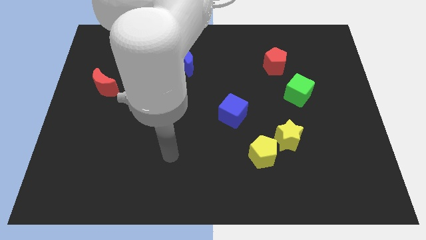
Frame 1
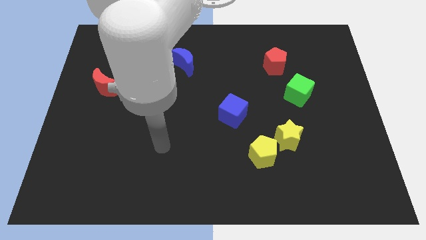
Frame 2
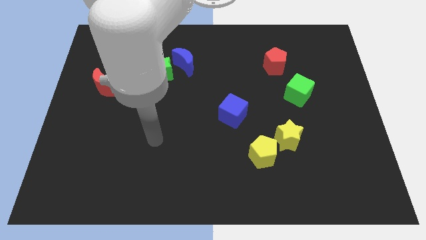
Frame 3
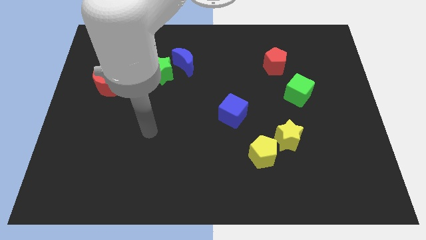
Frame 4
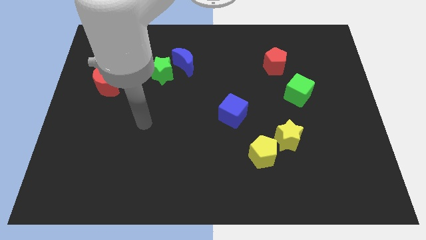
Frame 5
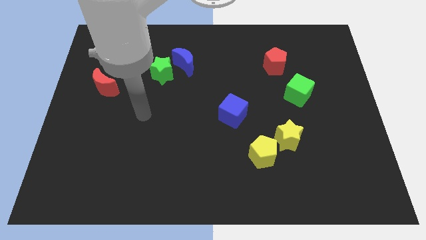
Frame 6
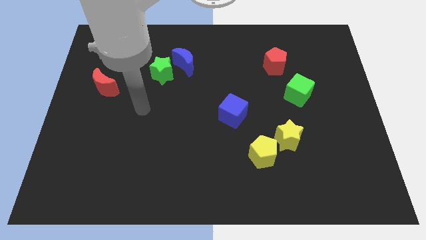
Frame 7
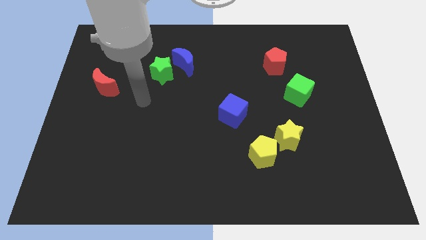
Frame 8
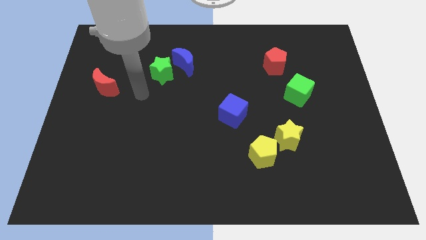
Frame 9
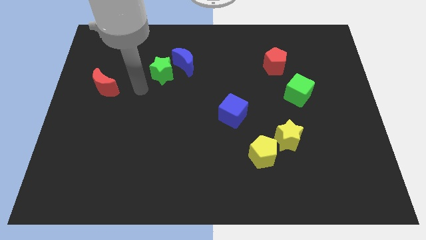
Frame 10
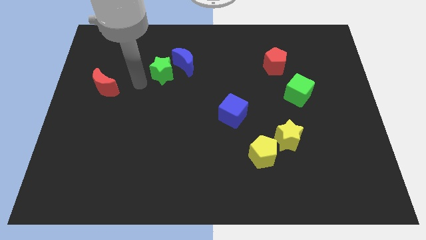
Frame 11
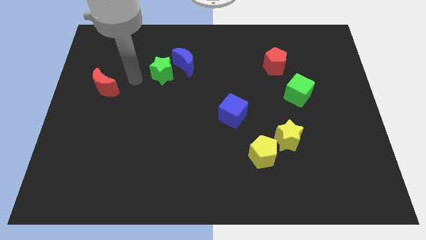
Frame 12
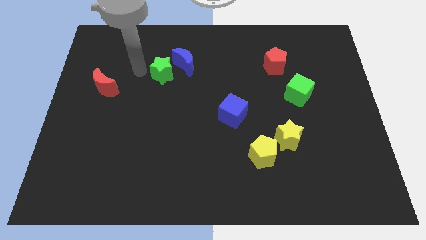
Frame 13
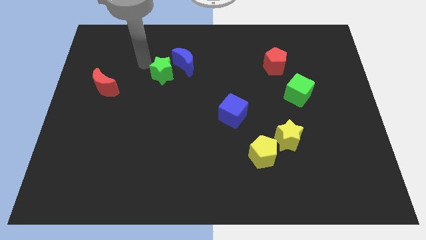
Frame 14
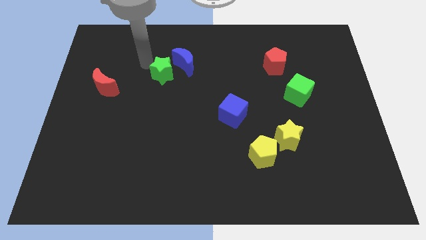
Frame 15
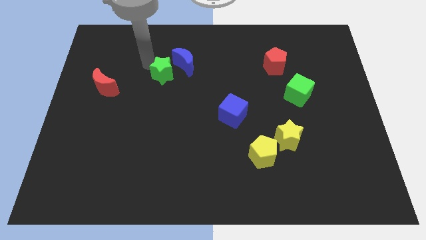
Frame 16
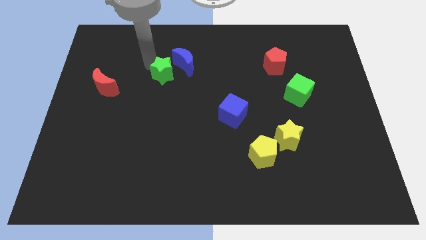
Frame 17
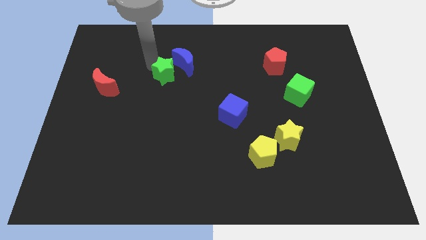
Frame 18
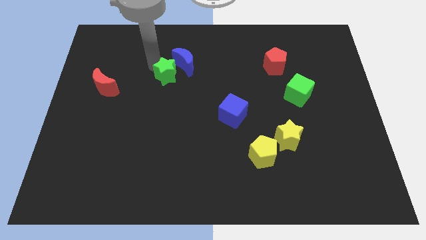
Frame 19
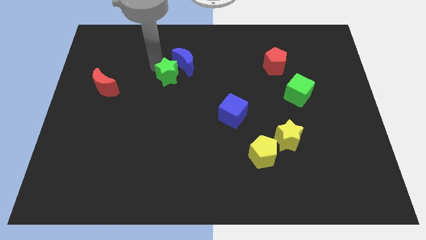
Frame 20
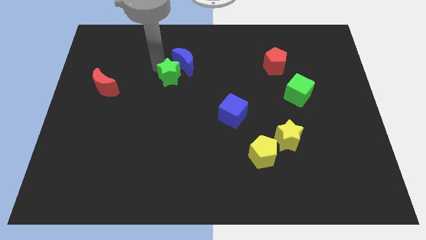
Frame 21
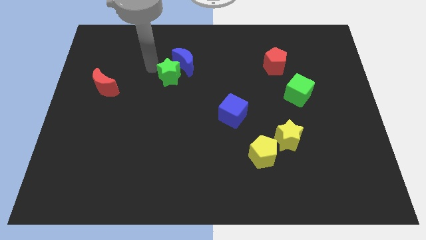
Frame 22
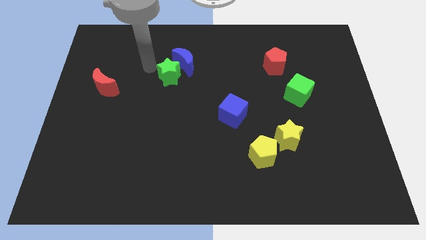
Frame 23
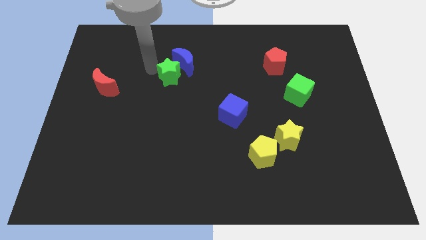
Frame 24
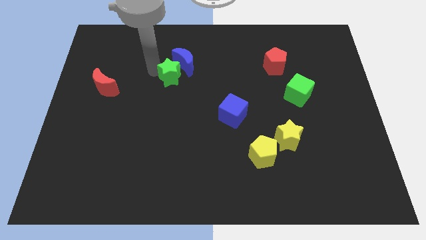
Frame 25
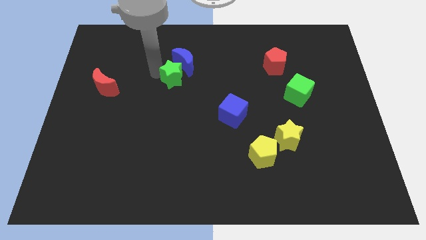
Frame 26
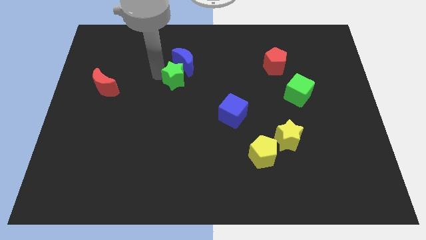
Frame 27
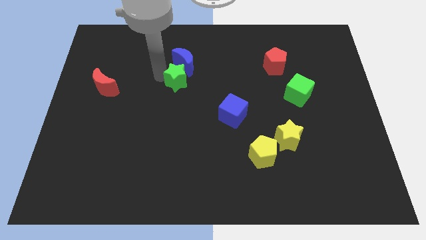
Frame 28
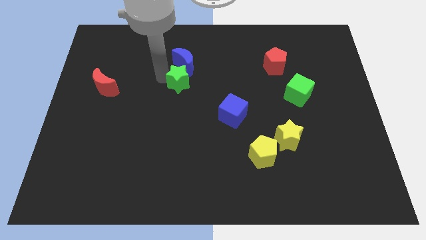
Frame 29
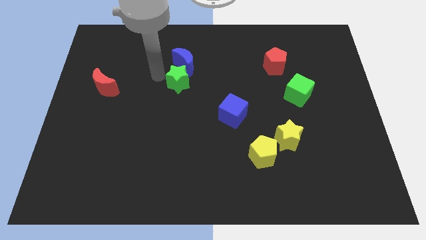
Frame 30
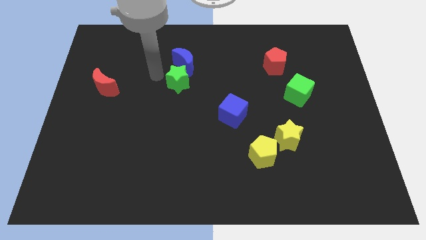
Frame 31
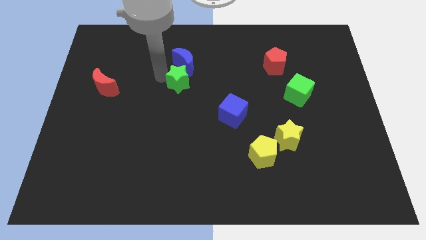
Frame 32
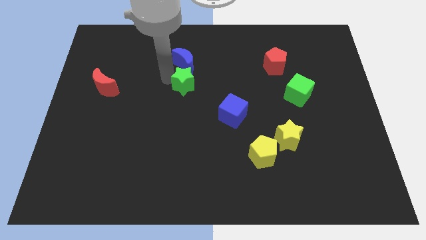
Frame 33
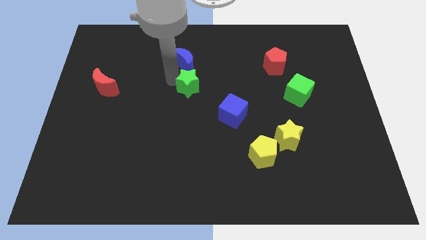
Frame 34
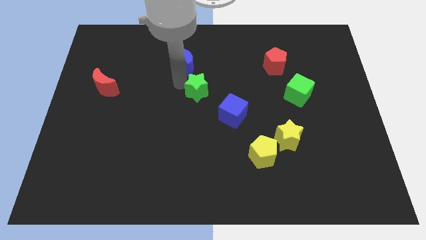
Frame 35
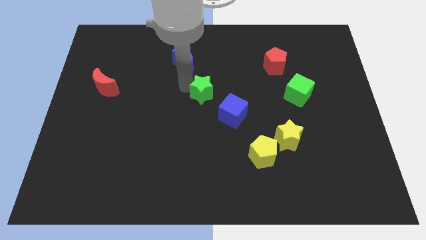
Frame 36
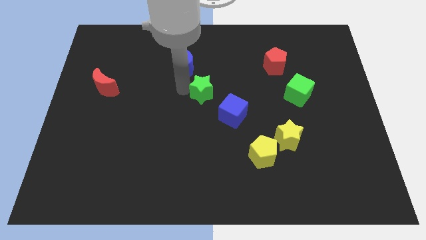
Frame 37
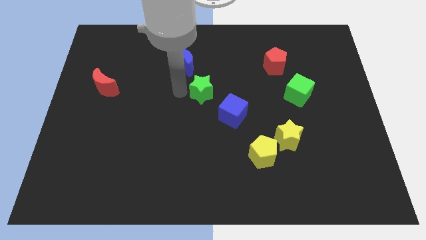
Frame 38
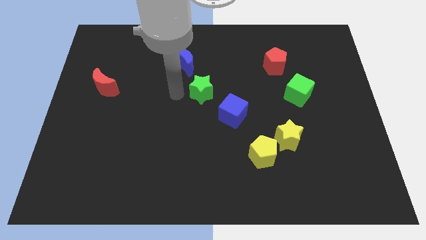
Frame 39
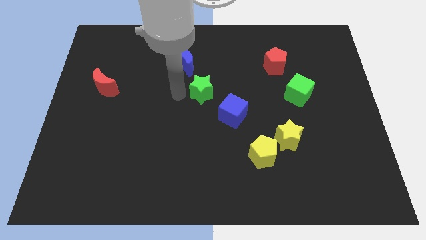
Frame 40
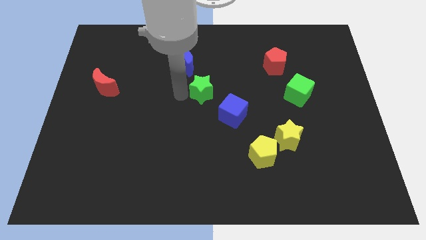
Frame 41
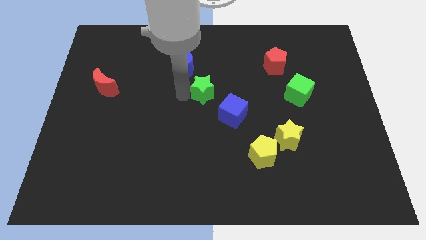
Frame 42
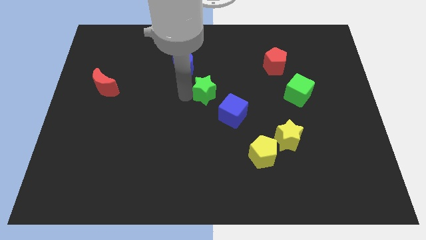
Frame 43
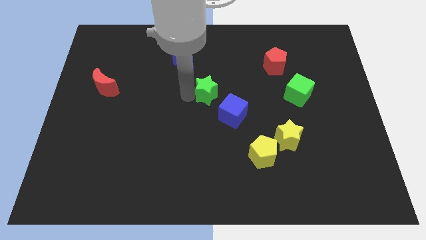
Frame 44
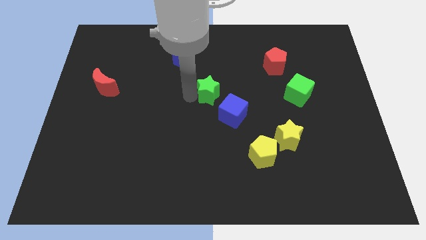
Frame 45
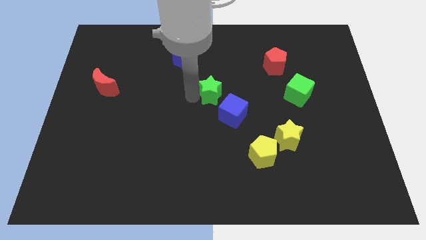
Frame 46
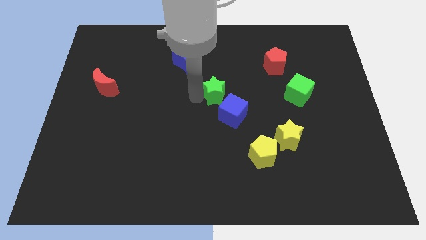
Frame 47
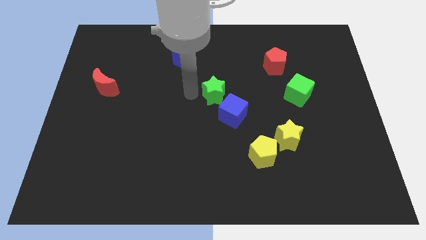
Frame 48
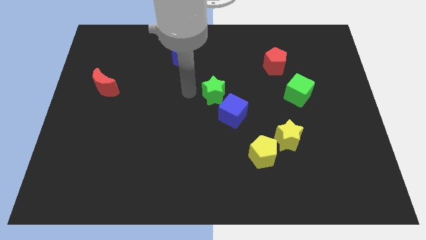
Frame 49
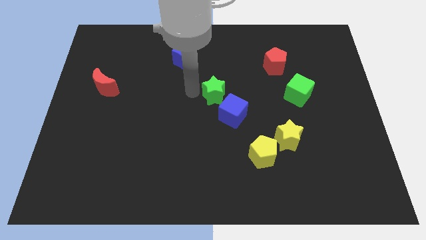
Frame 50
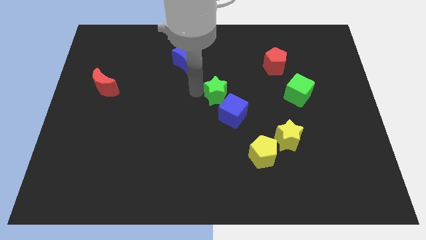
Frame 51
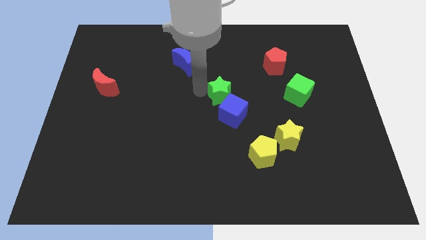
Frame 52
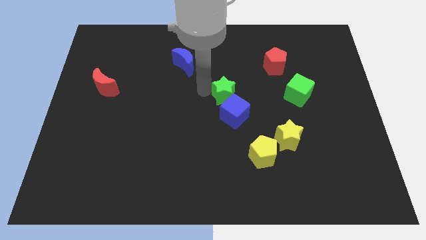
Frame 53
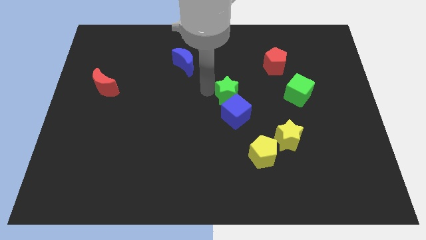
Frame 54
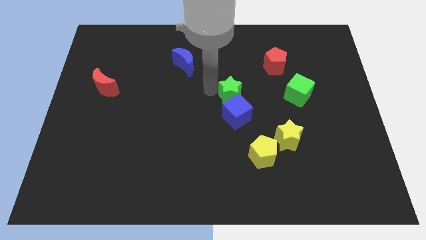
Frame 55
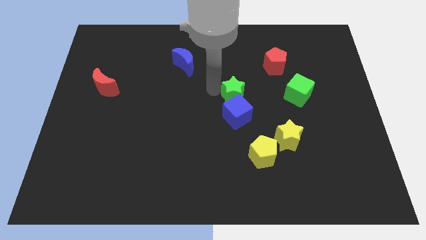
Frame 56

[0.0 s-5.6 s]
push the green star to the top right side of the blue cube

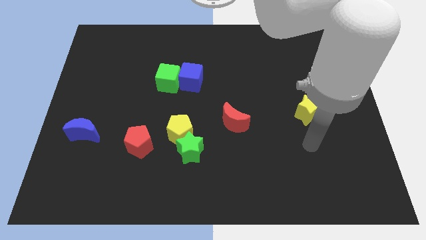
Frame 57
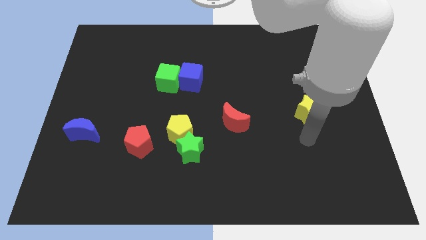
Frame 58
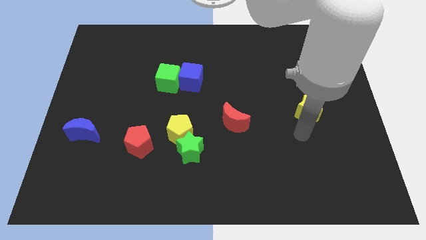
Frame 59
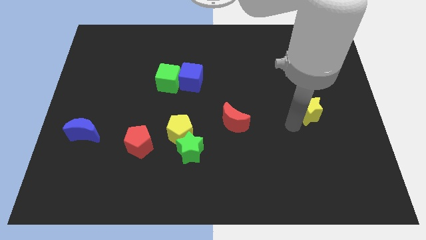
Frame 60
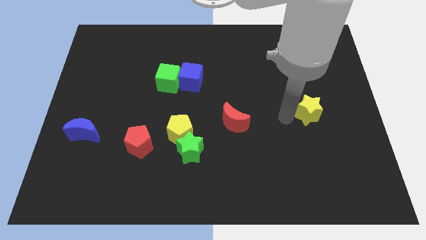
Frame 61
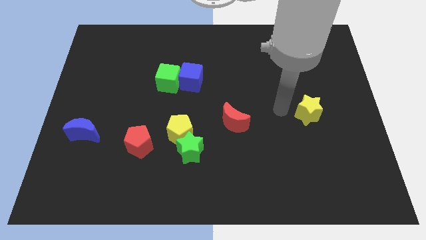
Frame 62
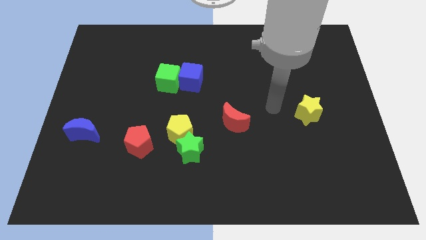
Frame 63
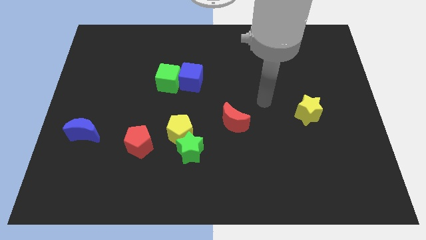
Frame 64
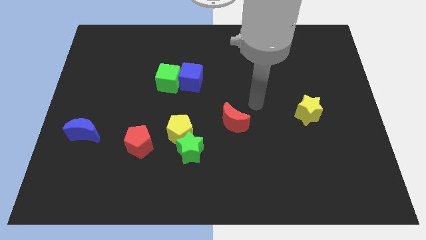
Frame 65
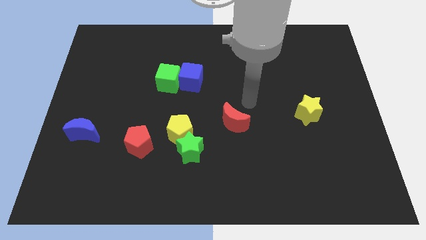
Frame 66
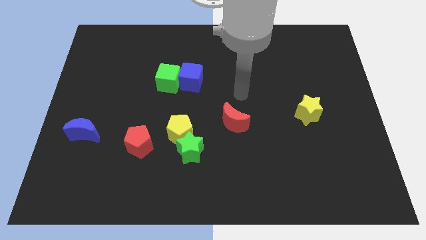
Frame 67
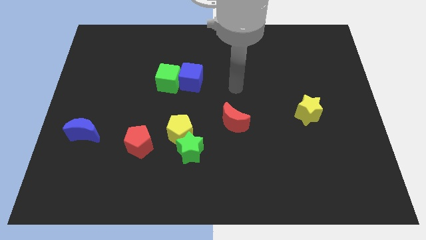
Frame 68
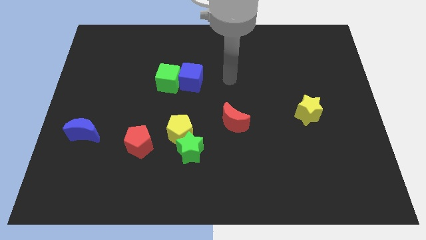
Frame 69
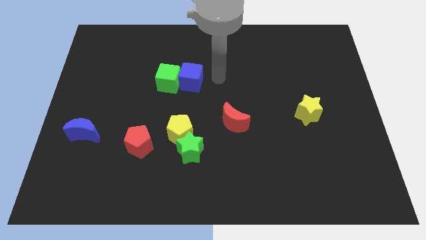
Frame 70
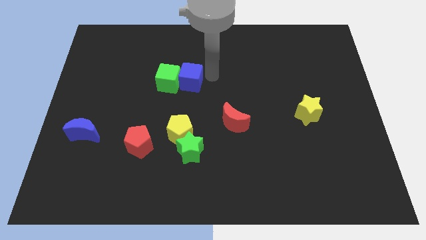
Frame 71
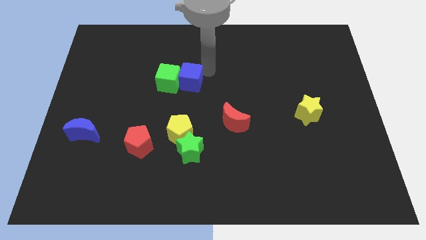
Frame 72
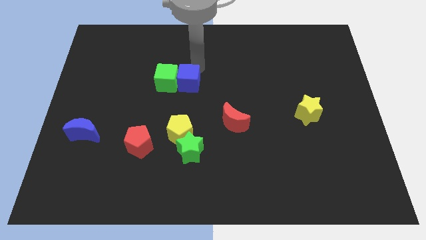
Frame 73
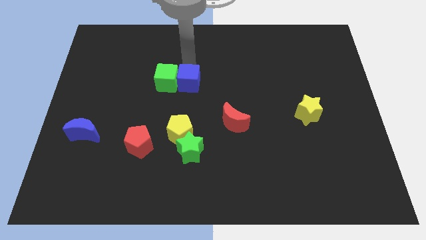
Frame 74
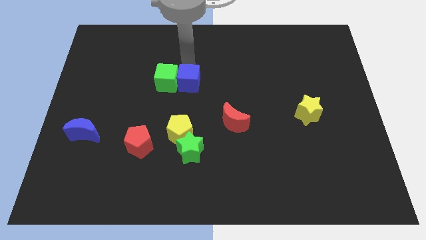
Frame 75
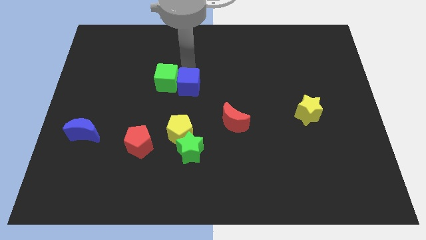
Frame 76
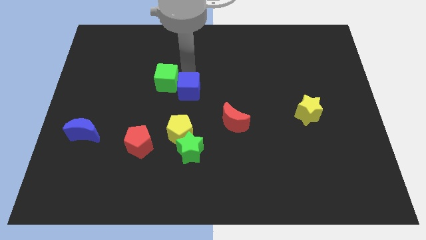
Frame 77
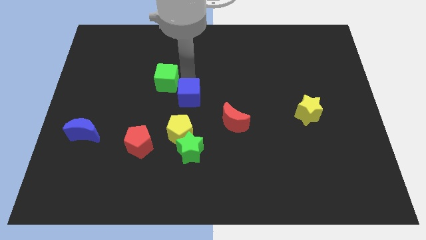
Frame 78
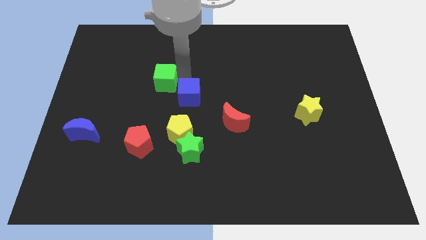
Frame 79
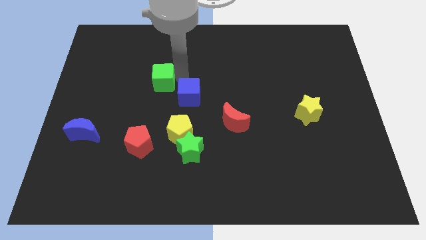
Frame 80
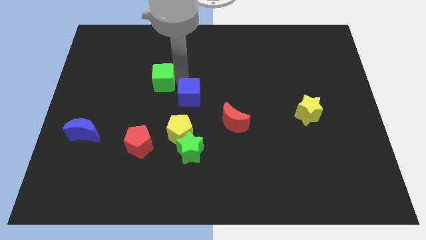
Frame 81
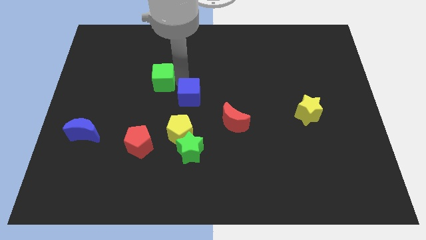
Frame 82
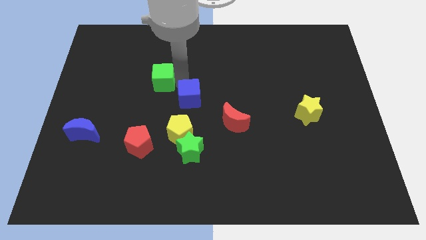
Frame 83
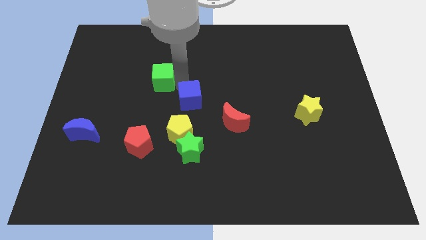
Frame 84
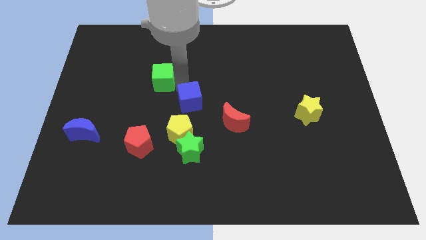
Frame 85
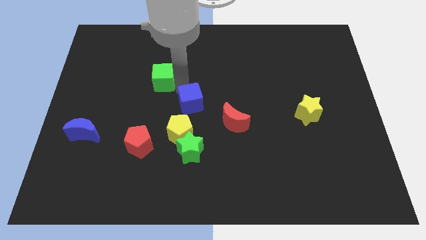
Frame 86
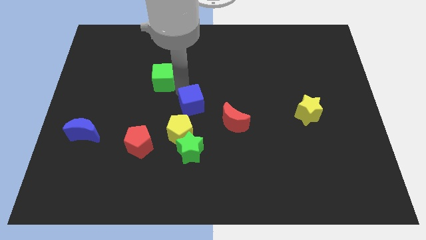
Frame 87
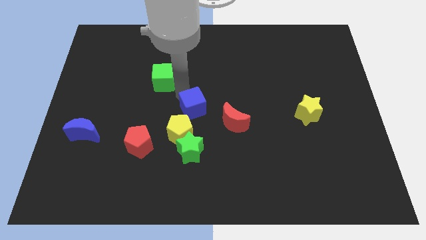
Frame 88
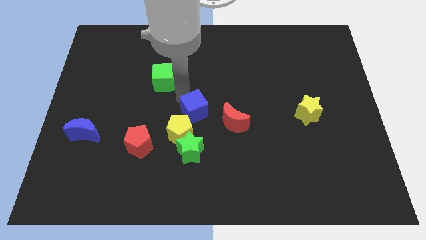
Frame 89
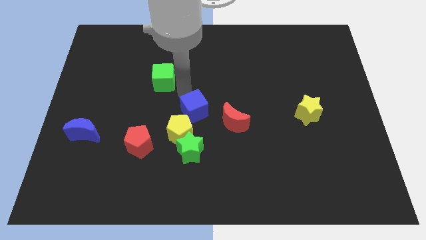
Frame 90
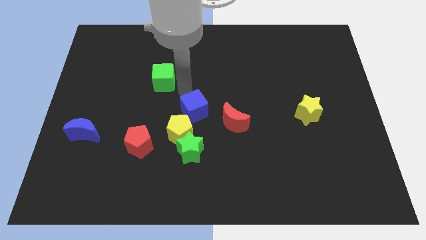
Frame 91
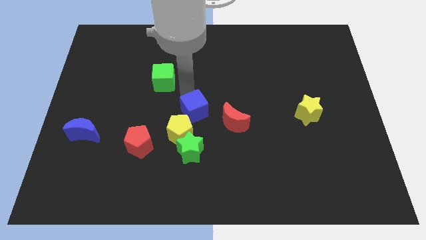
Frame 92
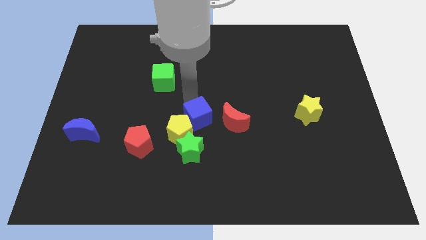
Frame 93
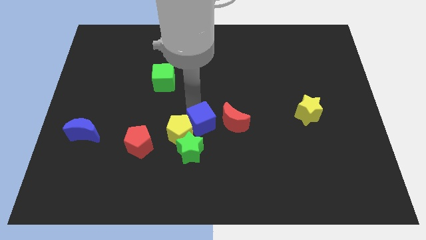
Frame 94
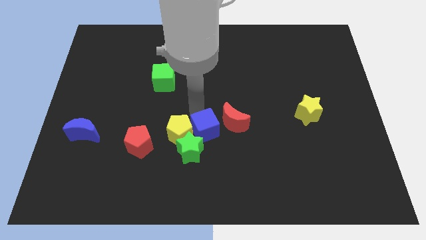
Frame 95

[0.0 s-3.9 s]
put the blue cube to the bottom left side of the red moon
